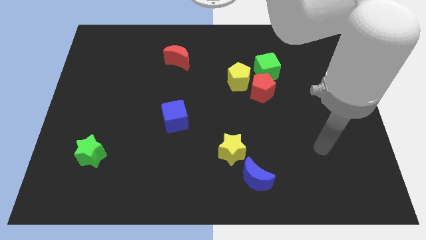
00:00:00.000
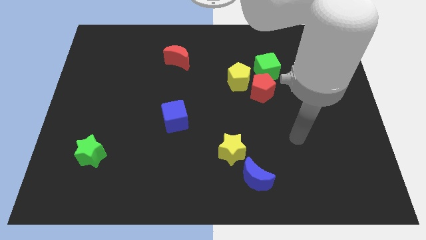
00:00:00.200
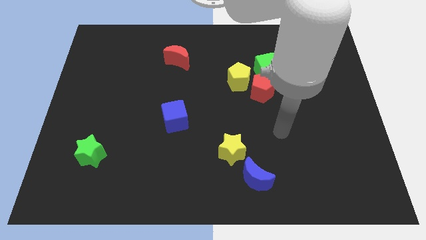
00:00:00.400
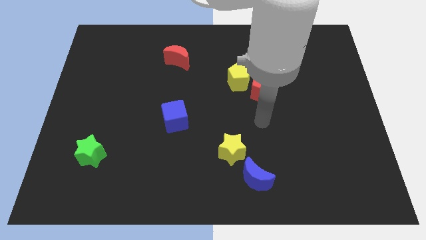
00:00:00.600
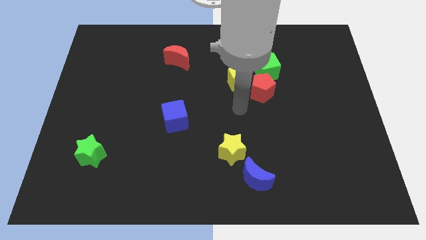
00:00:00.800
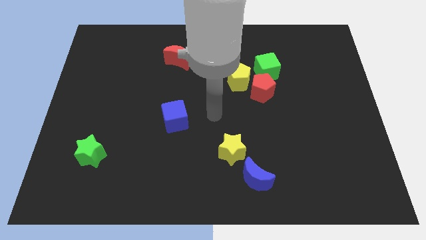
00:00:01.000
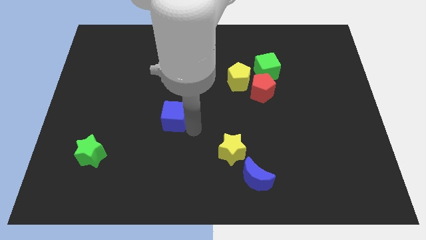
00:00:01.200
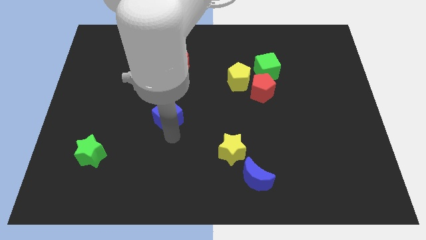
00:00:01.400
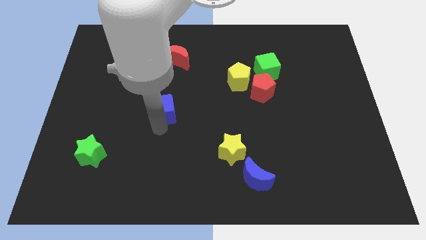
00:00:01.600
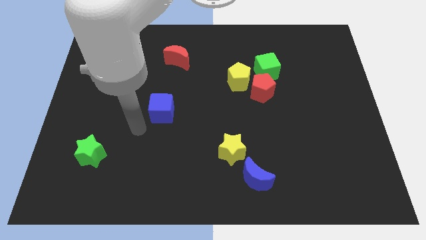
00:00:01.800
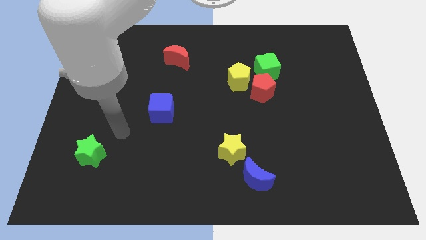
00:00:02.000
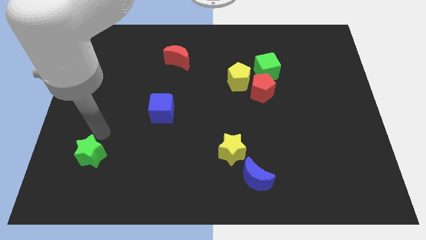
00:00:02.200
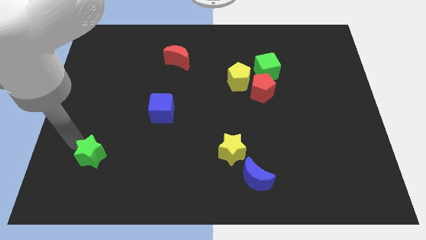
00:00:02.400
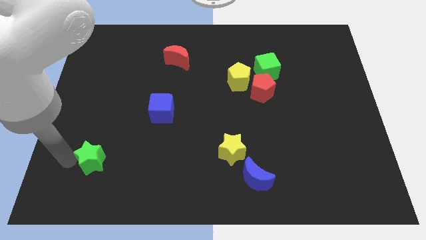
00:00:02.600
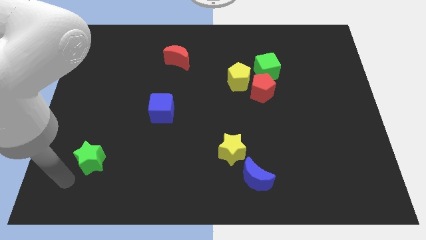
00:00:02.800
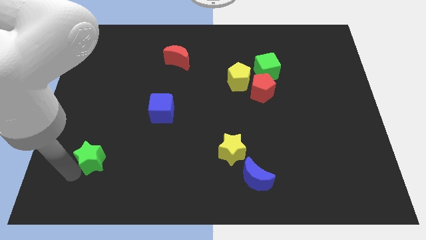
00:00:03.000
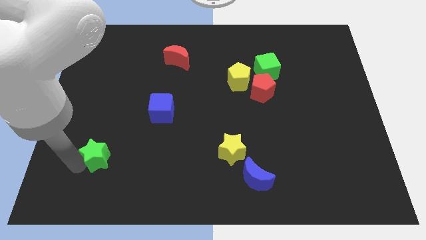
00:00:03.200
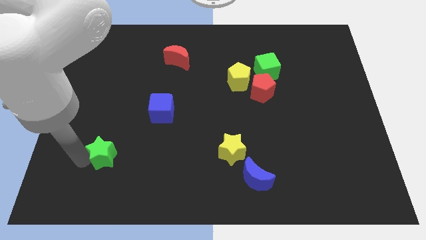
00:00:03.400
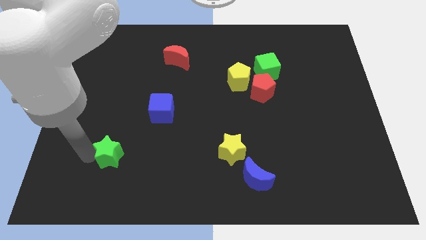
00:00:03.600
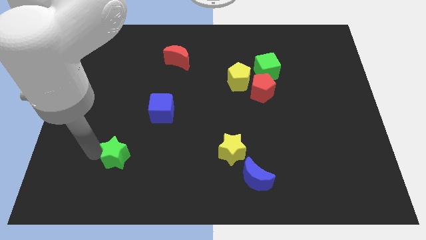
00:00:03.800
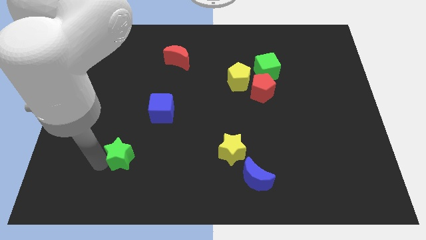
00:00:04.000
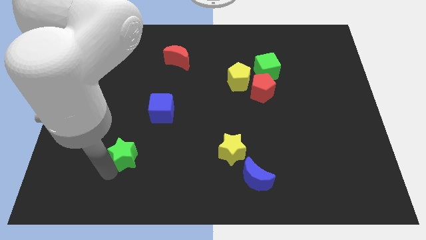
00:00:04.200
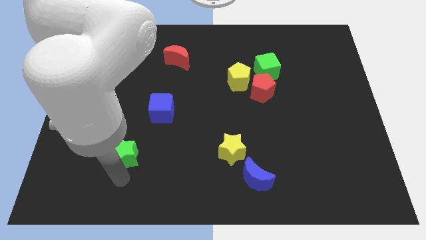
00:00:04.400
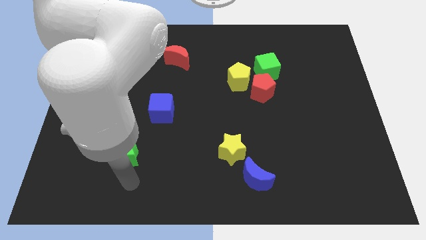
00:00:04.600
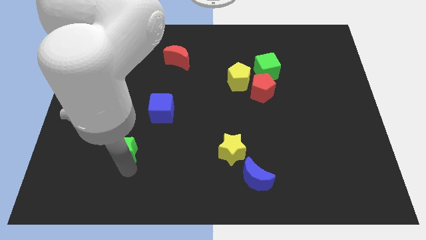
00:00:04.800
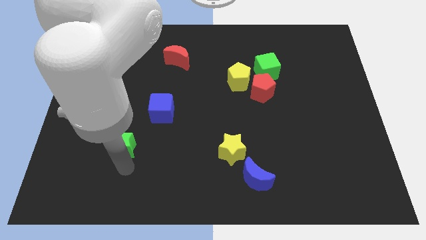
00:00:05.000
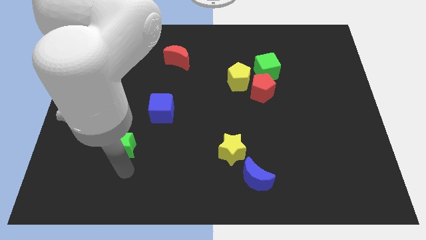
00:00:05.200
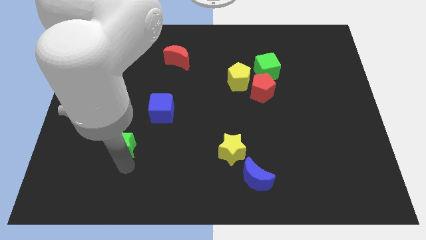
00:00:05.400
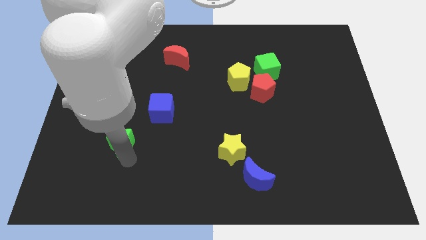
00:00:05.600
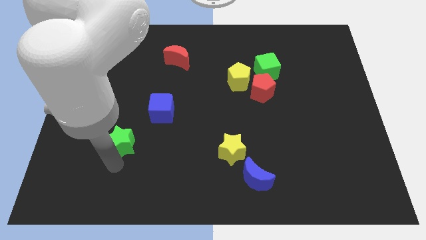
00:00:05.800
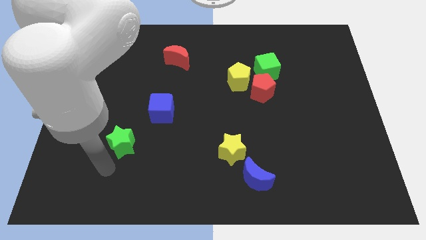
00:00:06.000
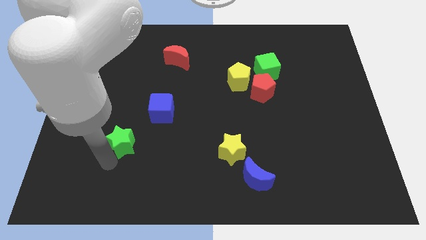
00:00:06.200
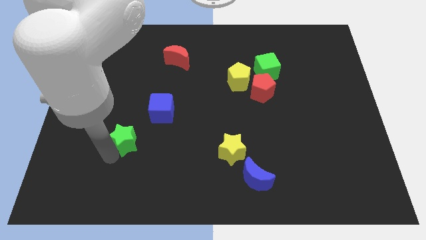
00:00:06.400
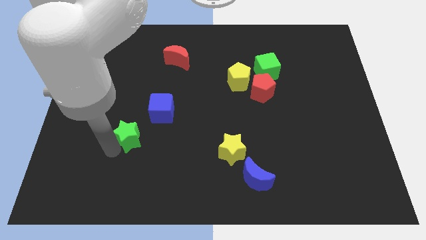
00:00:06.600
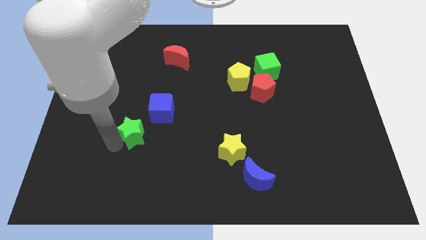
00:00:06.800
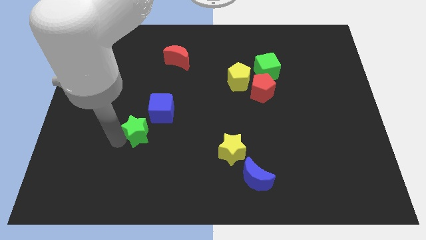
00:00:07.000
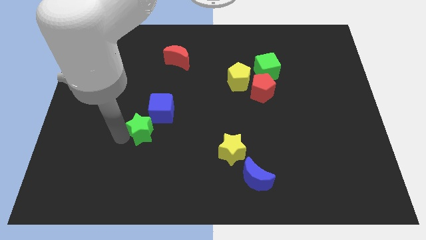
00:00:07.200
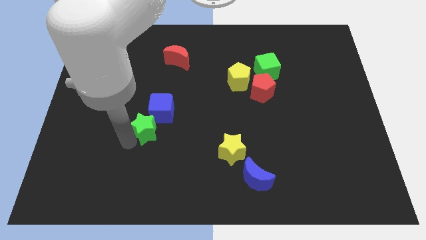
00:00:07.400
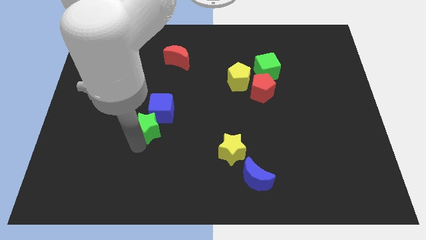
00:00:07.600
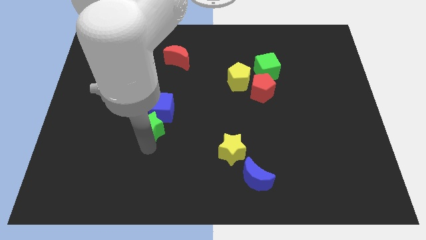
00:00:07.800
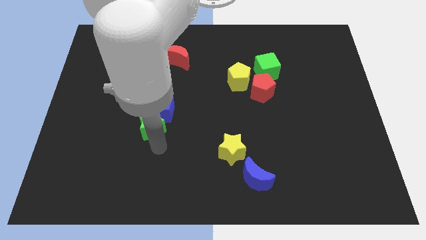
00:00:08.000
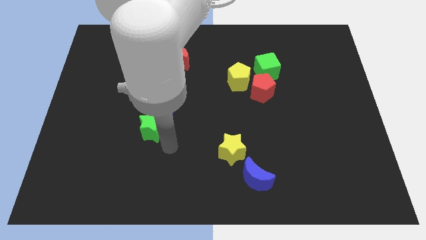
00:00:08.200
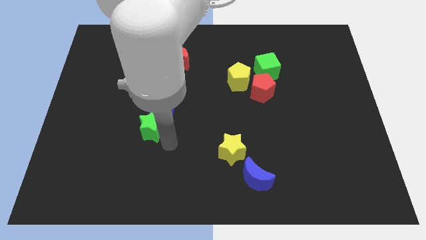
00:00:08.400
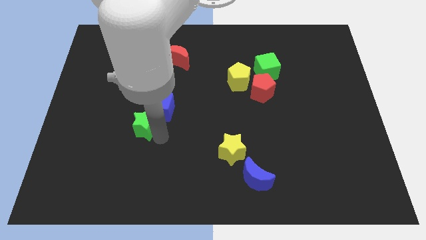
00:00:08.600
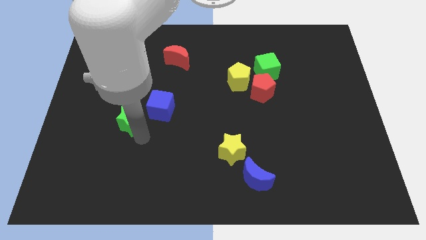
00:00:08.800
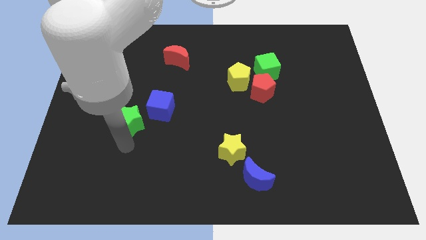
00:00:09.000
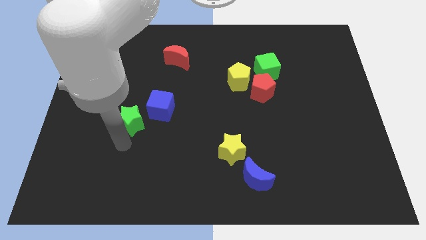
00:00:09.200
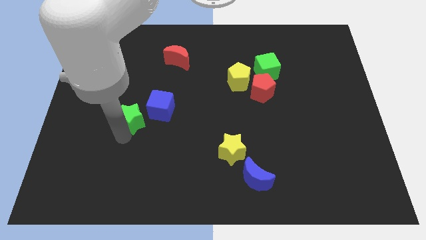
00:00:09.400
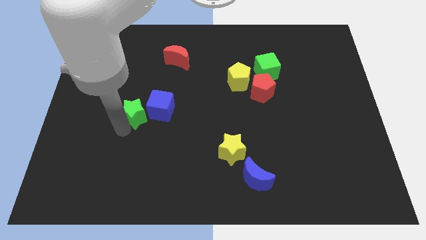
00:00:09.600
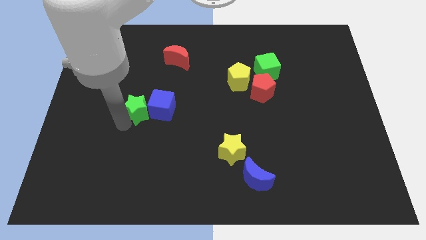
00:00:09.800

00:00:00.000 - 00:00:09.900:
slide the green star to the top left of the blue cube

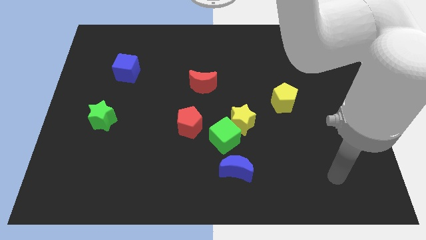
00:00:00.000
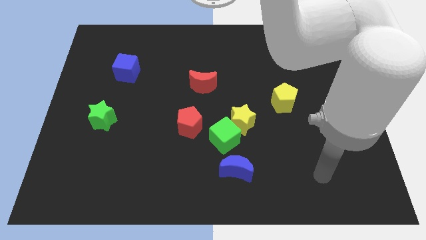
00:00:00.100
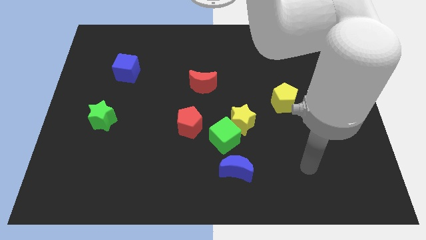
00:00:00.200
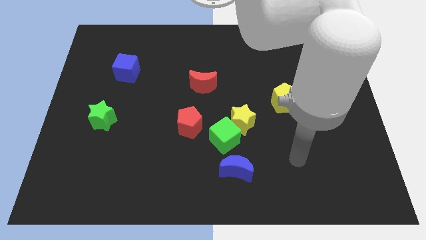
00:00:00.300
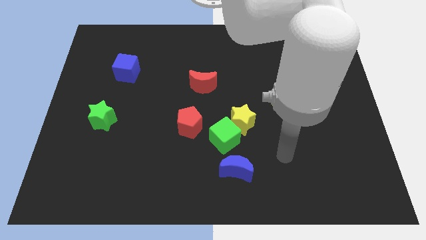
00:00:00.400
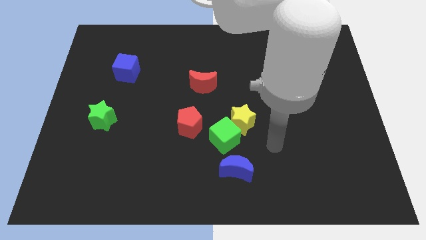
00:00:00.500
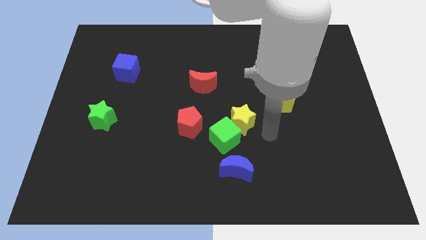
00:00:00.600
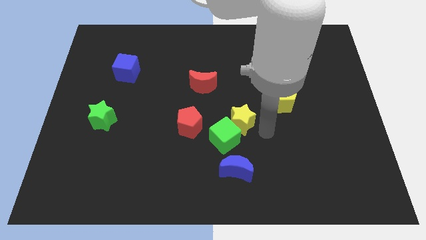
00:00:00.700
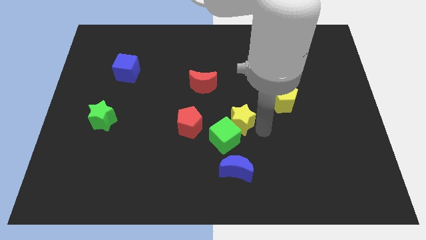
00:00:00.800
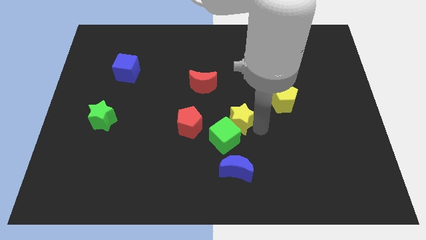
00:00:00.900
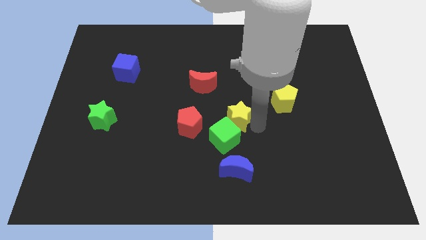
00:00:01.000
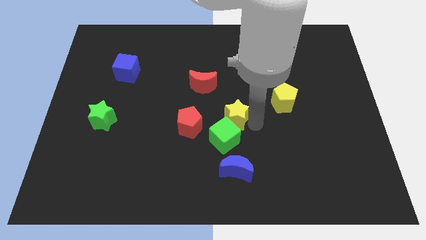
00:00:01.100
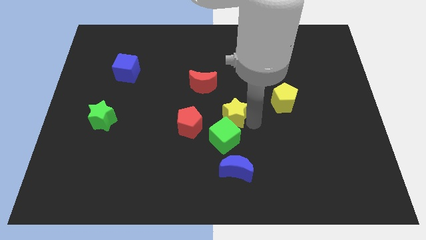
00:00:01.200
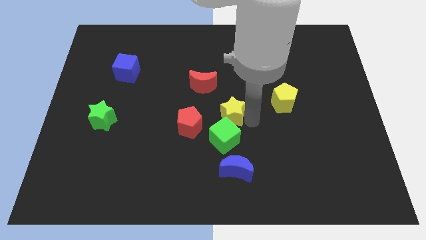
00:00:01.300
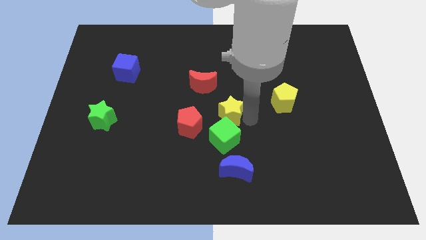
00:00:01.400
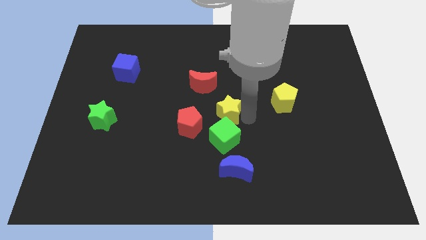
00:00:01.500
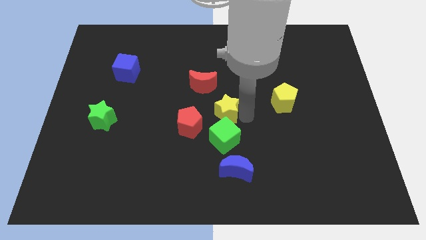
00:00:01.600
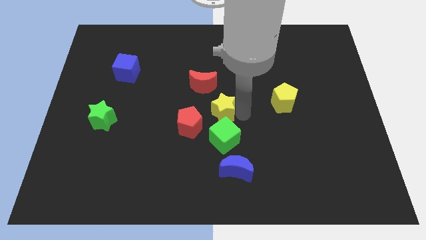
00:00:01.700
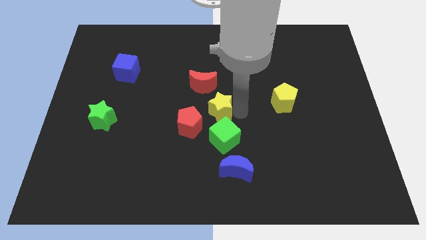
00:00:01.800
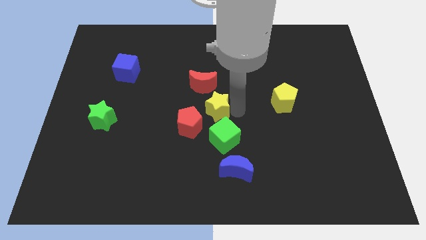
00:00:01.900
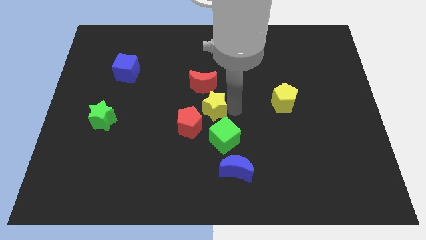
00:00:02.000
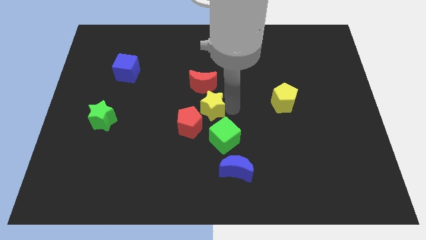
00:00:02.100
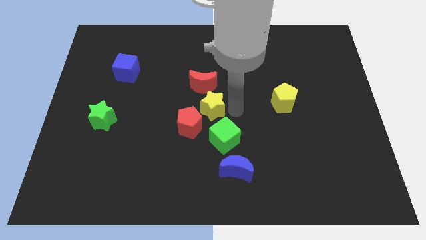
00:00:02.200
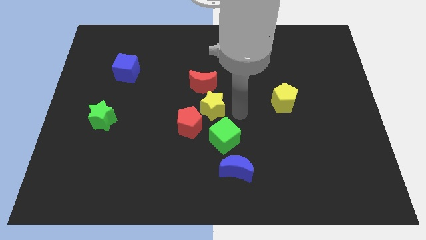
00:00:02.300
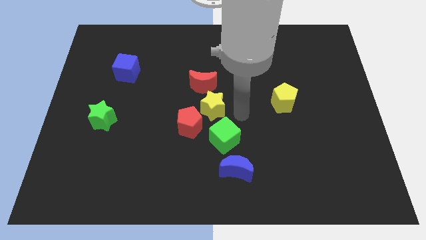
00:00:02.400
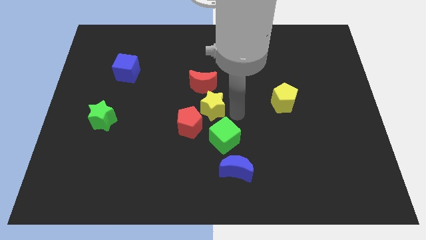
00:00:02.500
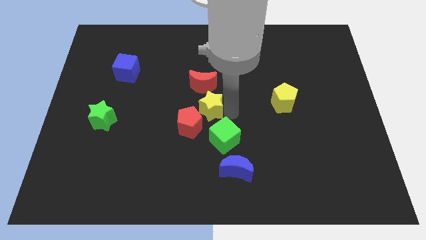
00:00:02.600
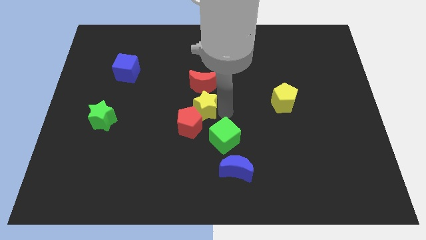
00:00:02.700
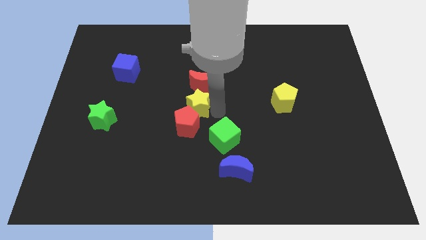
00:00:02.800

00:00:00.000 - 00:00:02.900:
put the yellow star to the bottom left side of the red moon

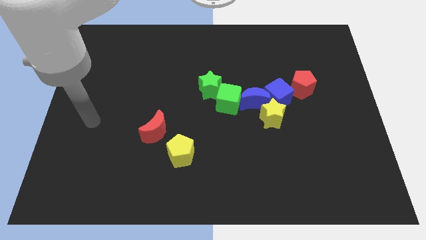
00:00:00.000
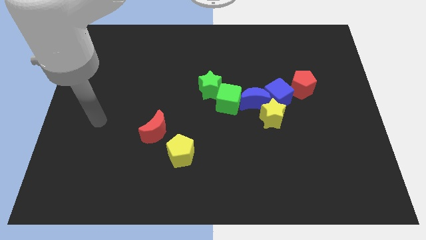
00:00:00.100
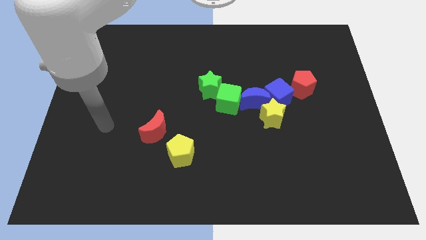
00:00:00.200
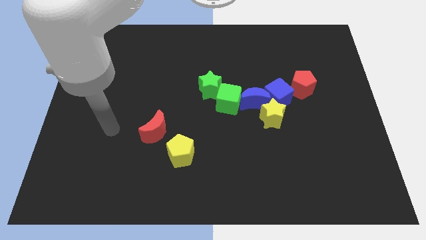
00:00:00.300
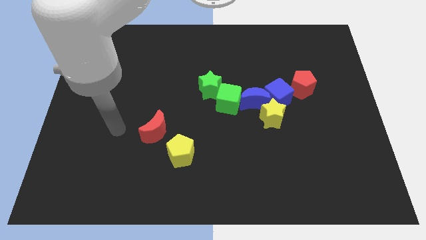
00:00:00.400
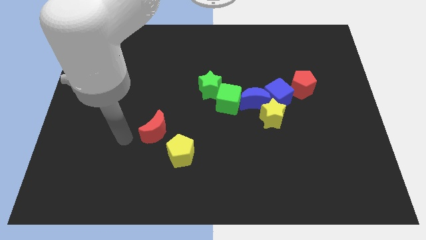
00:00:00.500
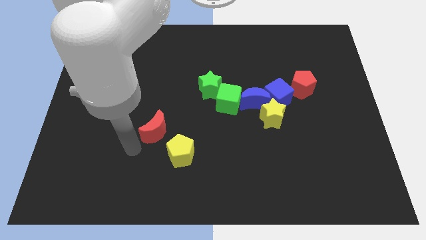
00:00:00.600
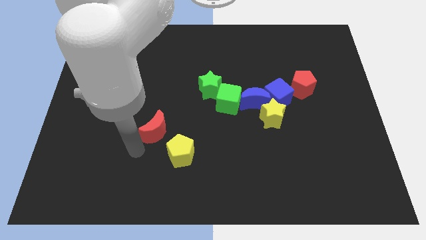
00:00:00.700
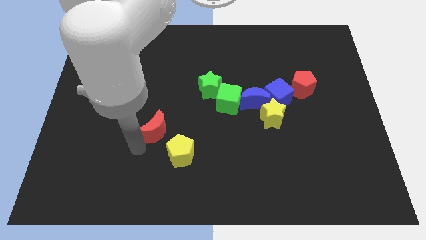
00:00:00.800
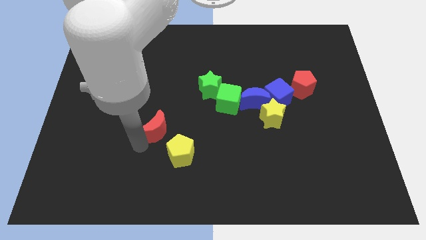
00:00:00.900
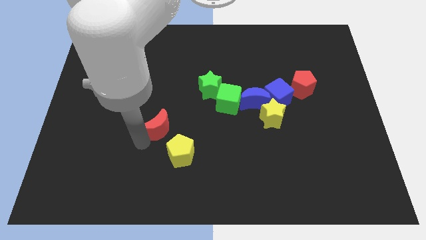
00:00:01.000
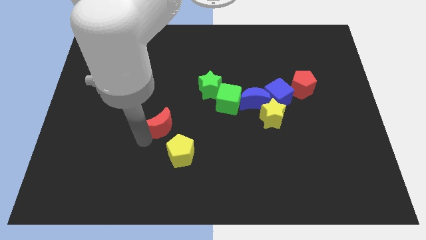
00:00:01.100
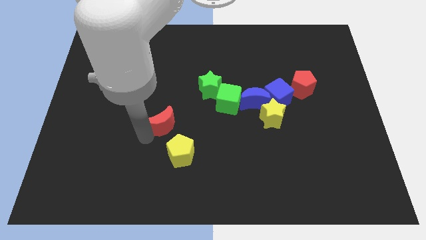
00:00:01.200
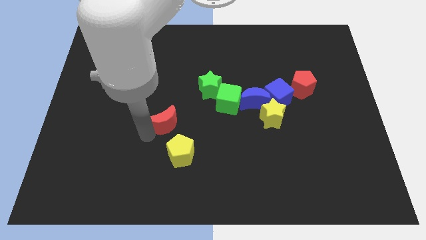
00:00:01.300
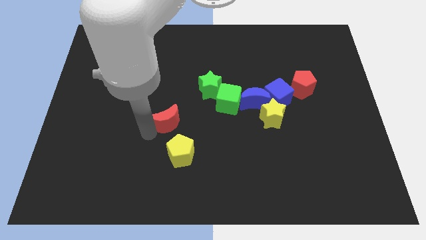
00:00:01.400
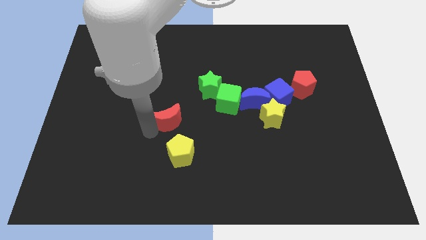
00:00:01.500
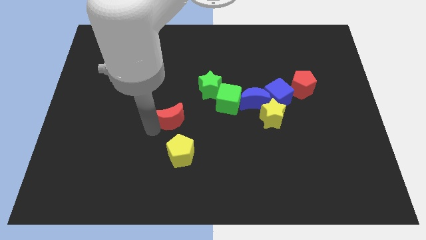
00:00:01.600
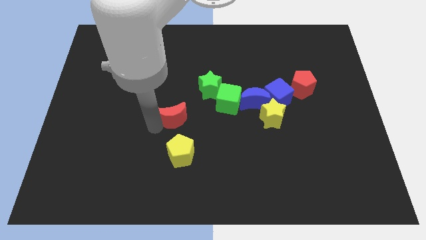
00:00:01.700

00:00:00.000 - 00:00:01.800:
move the red moon to the bottom left side of the green star
